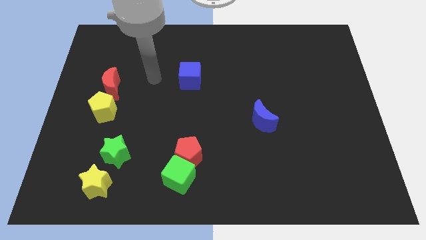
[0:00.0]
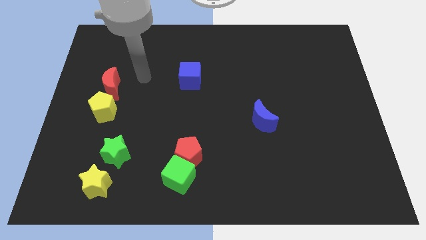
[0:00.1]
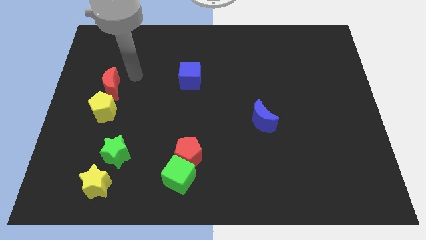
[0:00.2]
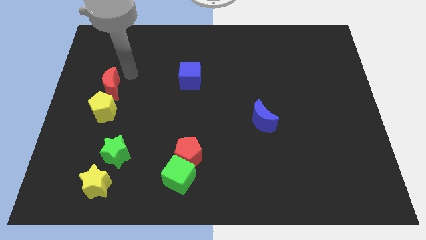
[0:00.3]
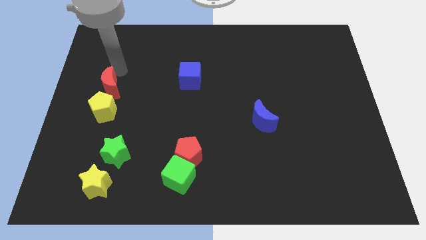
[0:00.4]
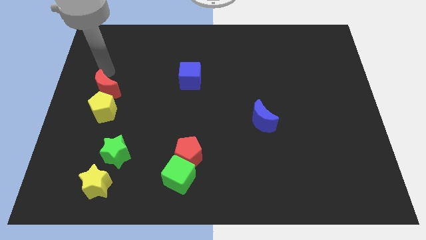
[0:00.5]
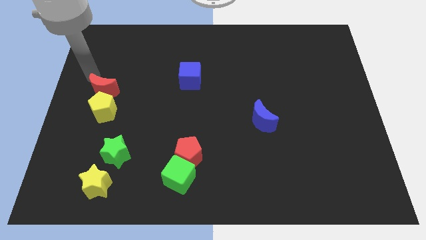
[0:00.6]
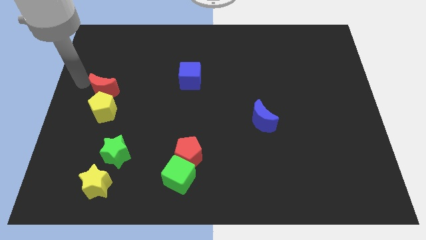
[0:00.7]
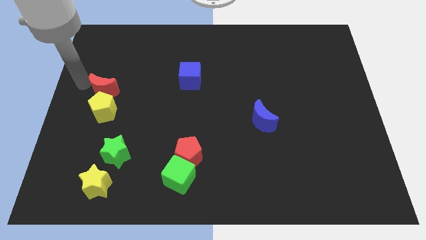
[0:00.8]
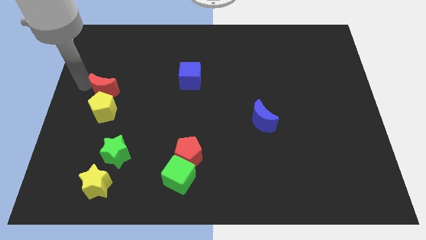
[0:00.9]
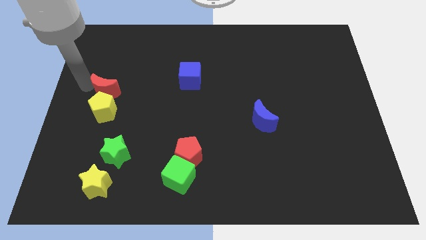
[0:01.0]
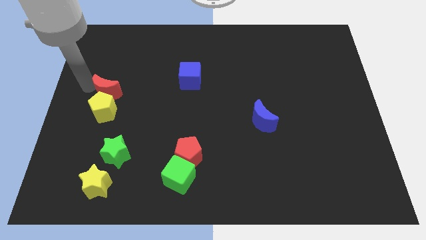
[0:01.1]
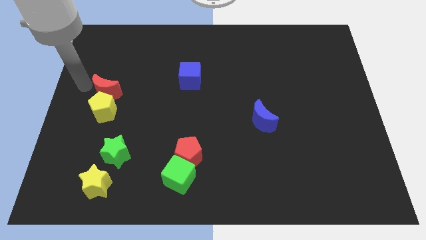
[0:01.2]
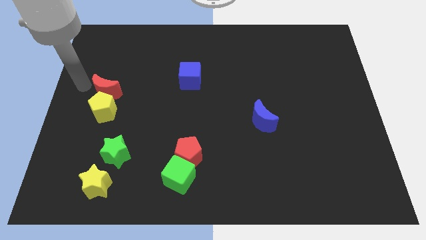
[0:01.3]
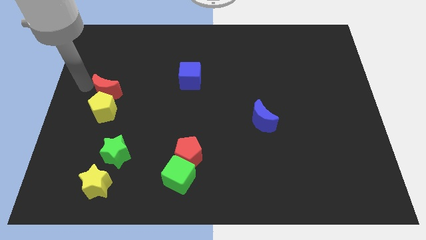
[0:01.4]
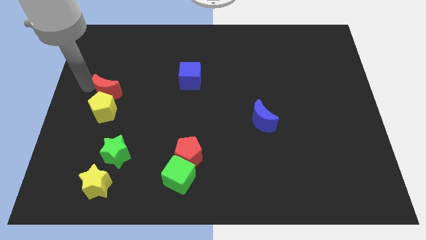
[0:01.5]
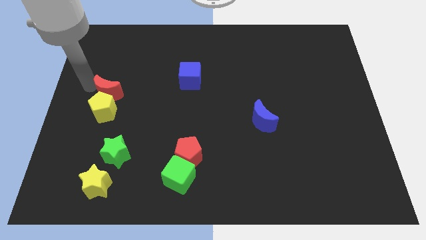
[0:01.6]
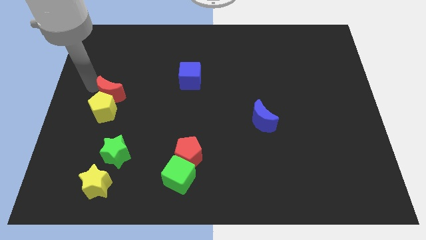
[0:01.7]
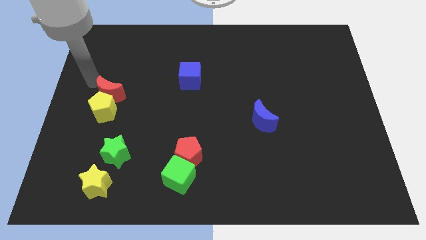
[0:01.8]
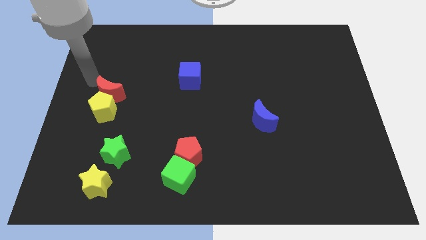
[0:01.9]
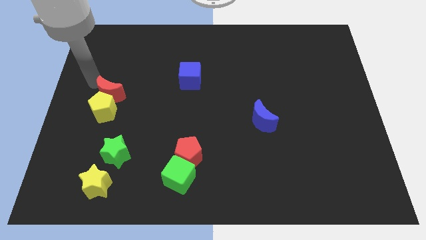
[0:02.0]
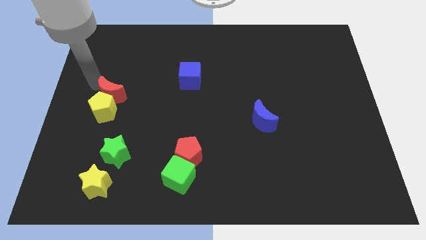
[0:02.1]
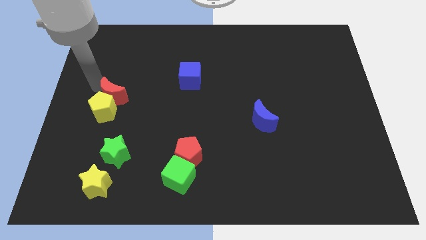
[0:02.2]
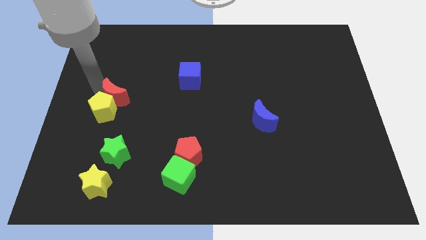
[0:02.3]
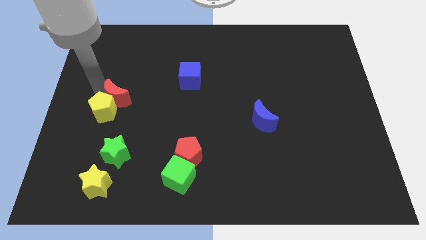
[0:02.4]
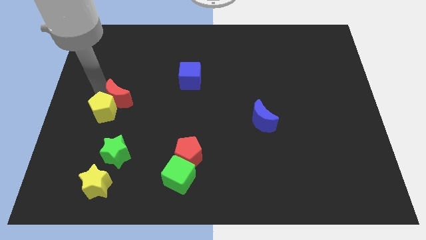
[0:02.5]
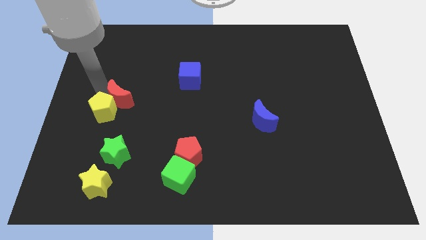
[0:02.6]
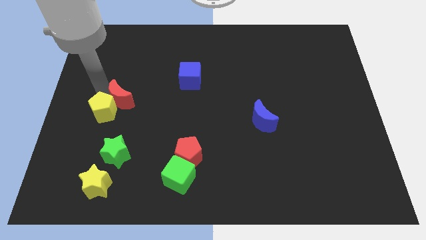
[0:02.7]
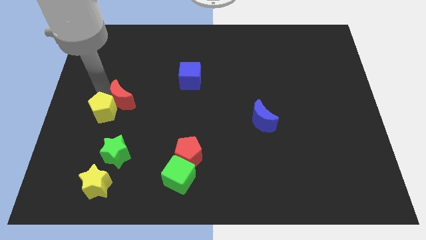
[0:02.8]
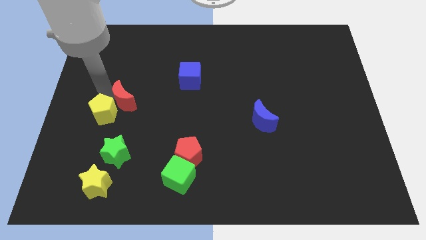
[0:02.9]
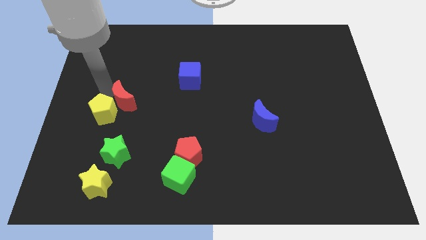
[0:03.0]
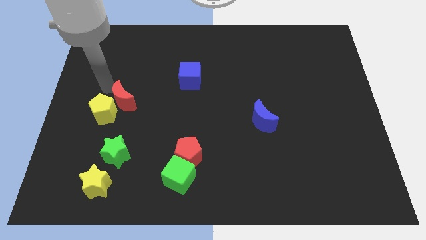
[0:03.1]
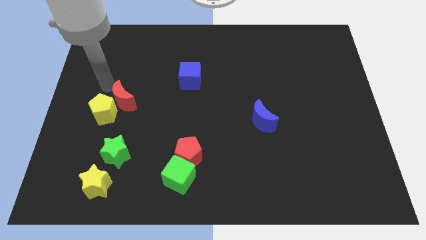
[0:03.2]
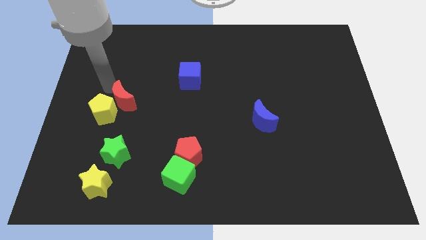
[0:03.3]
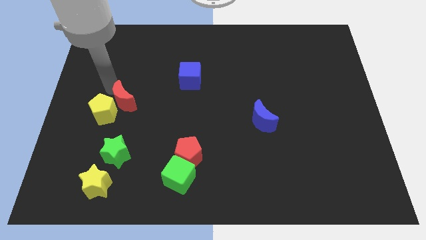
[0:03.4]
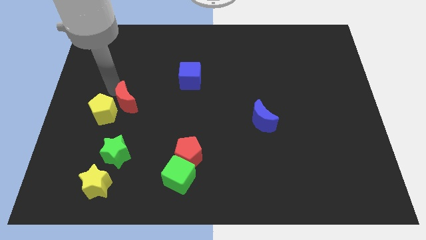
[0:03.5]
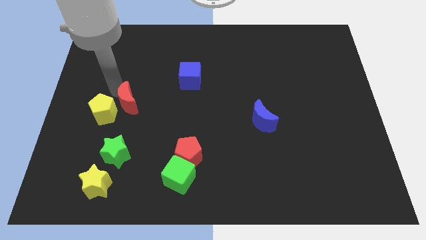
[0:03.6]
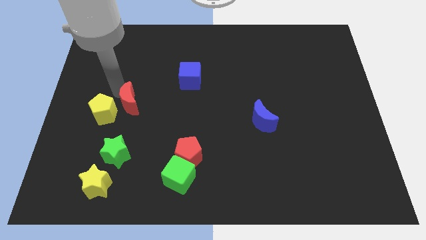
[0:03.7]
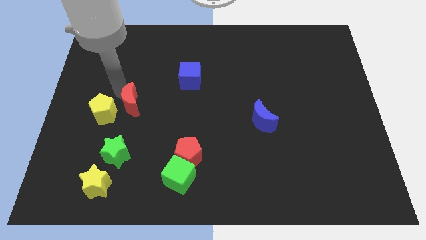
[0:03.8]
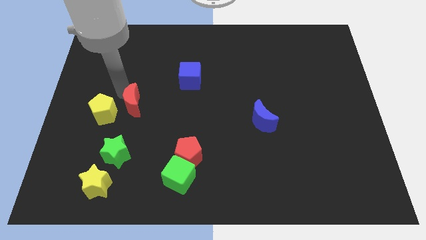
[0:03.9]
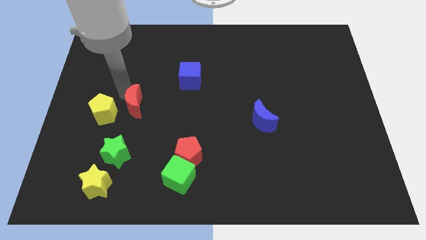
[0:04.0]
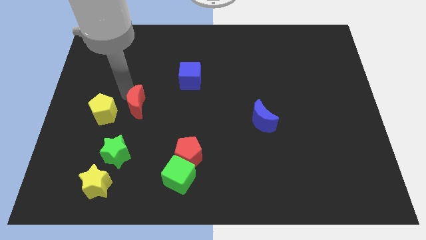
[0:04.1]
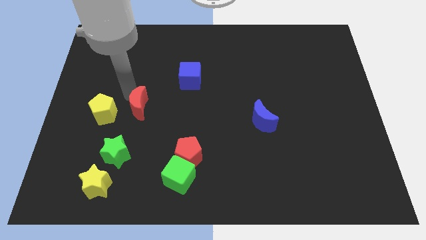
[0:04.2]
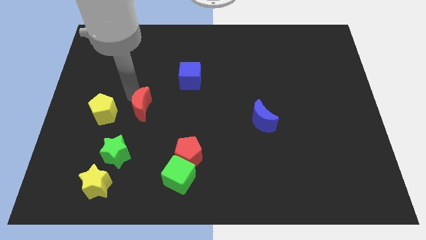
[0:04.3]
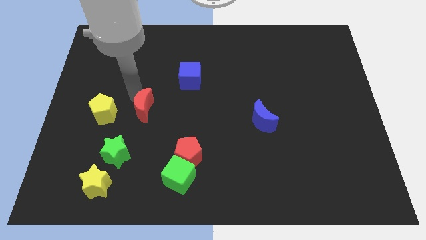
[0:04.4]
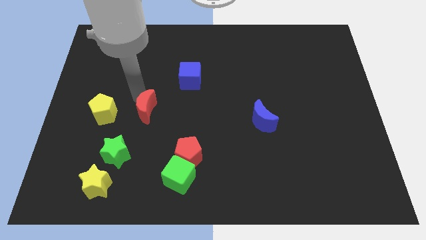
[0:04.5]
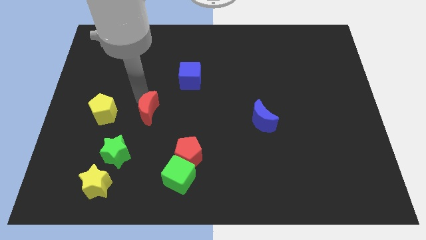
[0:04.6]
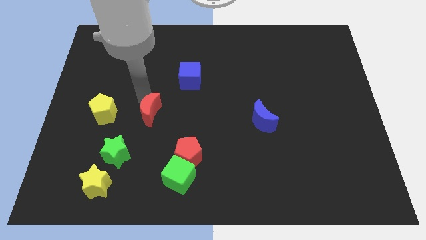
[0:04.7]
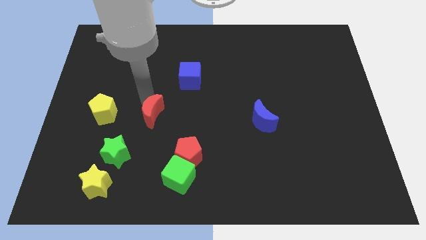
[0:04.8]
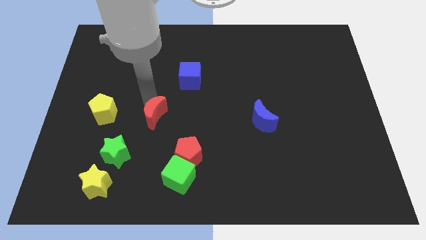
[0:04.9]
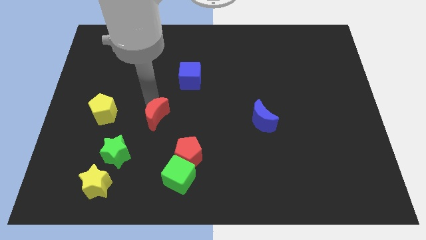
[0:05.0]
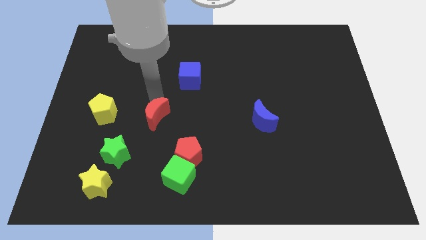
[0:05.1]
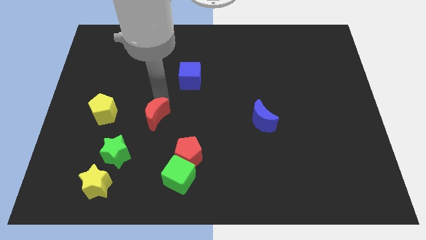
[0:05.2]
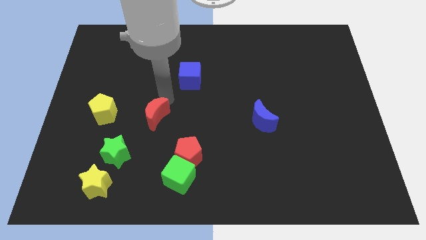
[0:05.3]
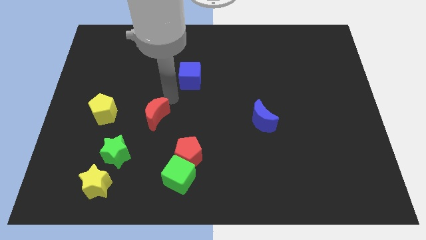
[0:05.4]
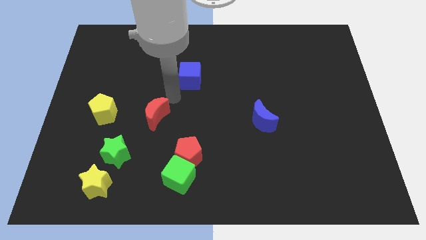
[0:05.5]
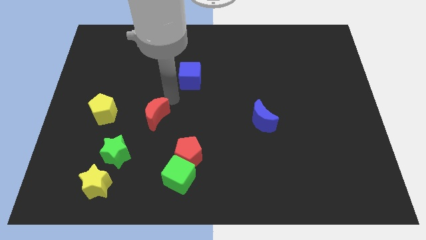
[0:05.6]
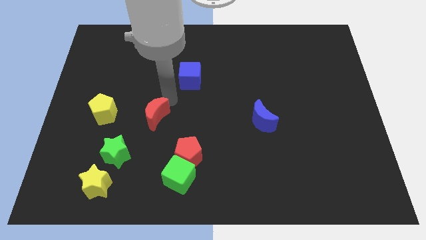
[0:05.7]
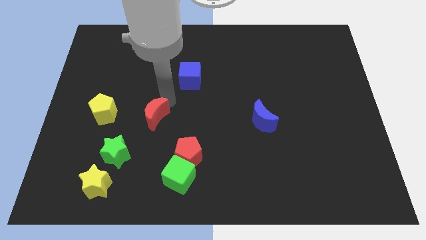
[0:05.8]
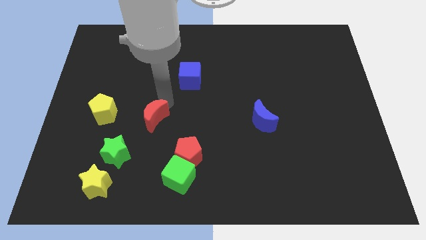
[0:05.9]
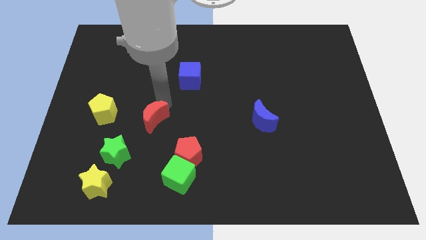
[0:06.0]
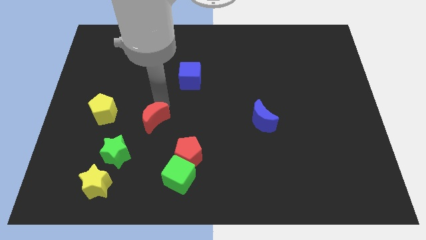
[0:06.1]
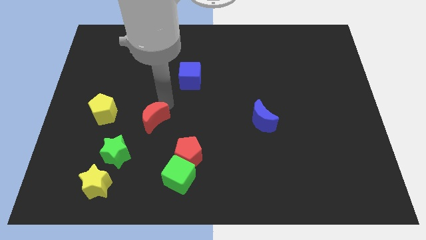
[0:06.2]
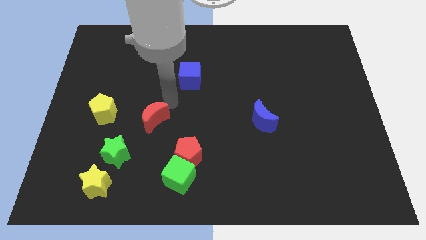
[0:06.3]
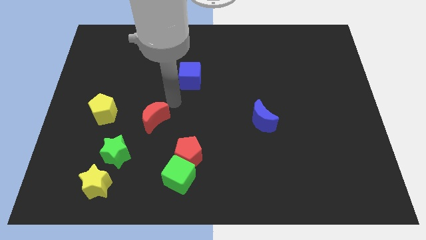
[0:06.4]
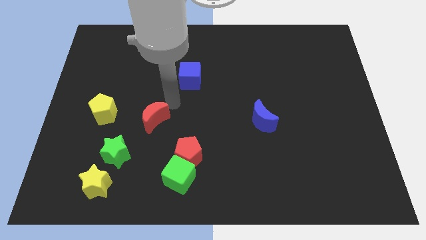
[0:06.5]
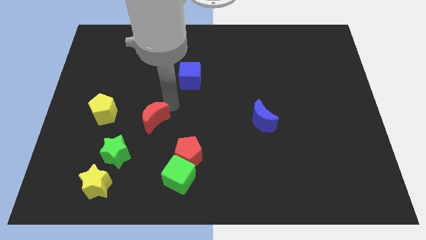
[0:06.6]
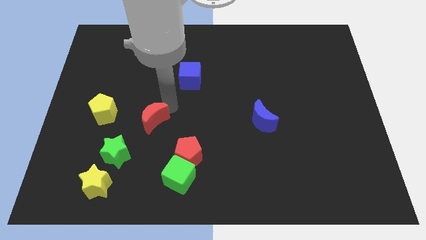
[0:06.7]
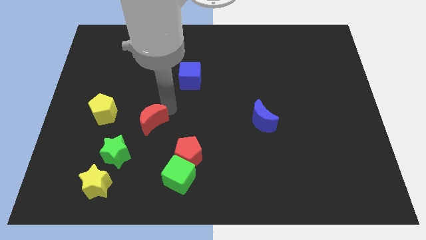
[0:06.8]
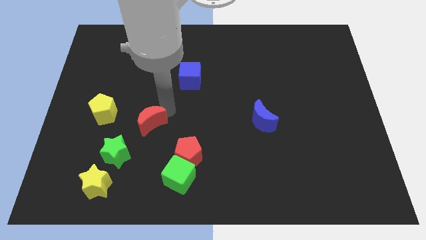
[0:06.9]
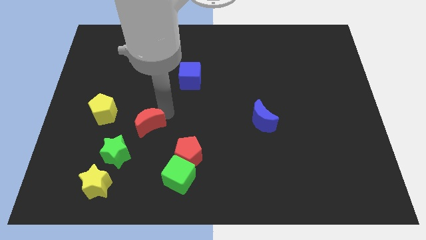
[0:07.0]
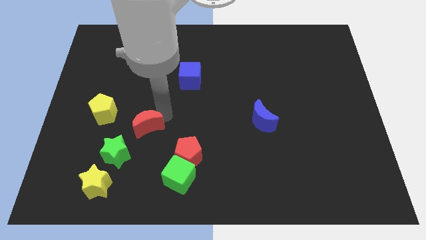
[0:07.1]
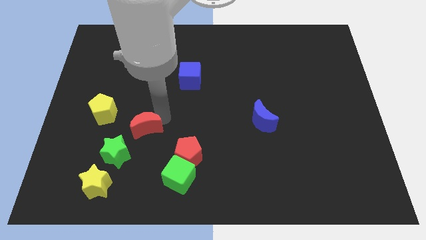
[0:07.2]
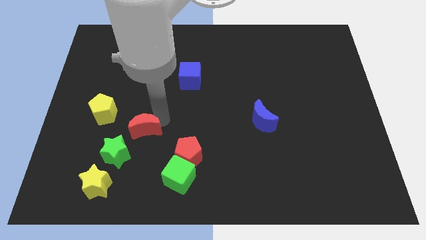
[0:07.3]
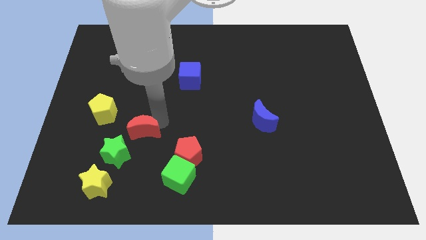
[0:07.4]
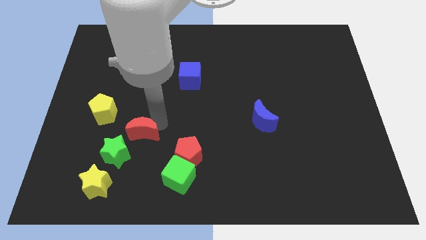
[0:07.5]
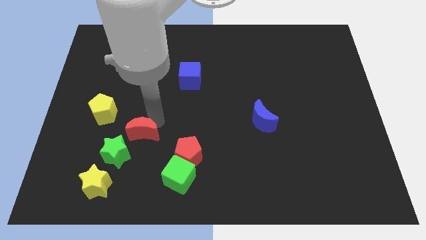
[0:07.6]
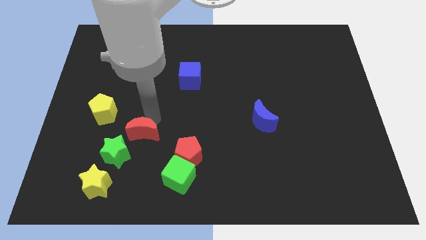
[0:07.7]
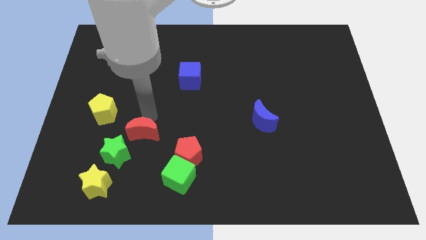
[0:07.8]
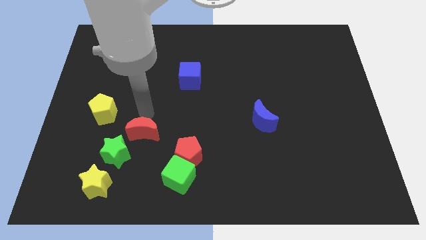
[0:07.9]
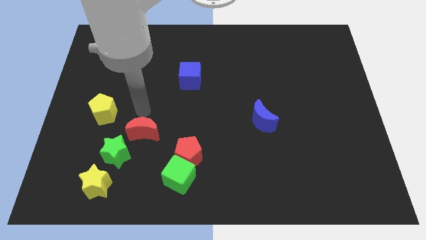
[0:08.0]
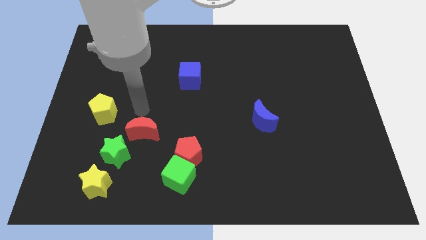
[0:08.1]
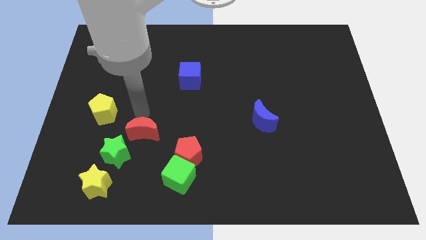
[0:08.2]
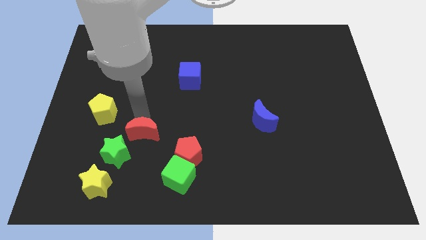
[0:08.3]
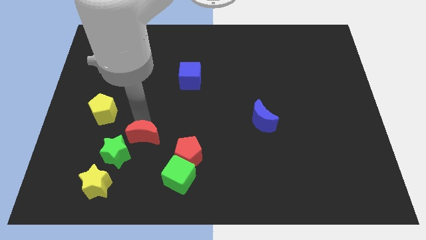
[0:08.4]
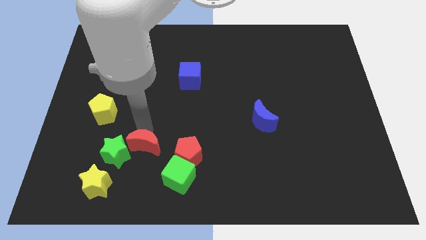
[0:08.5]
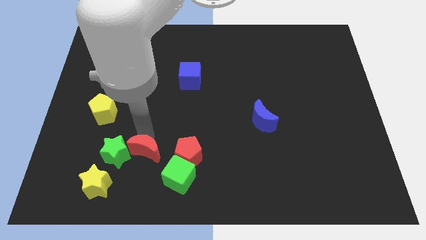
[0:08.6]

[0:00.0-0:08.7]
put the red moon diagonally down and to the right of the green star
